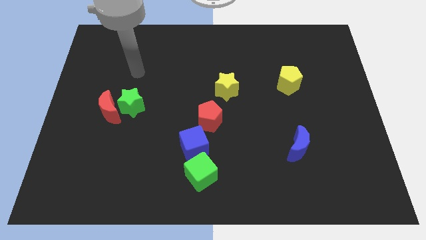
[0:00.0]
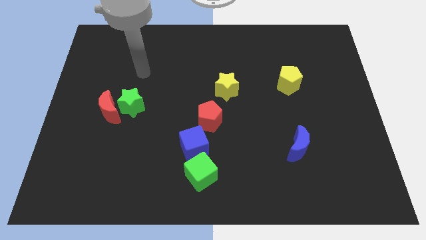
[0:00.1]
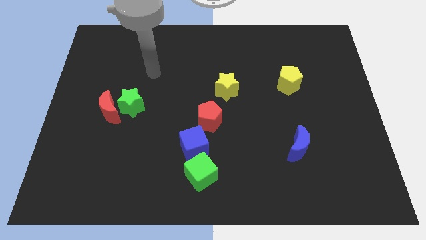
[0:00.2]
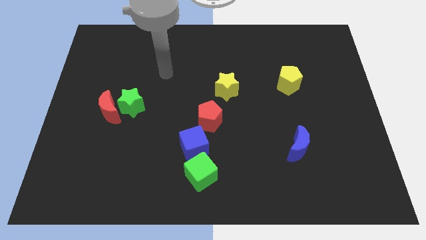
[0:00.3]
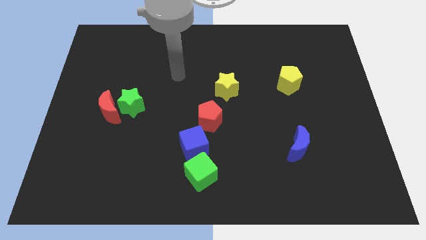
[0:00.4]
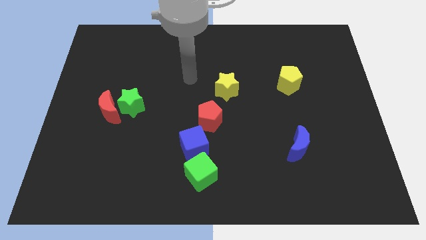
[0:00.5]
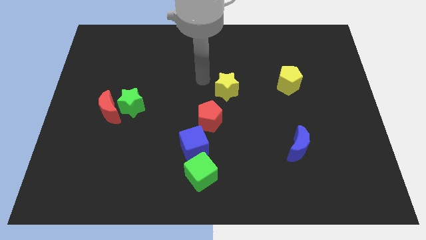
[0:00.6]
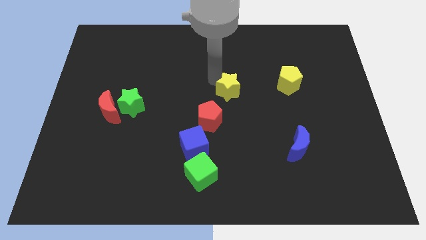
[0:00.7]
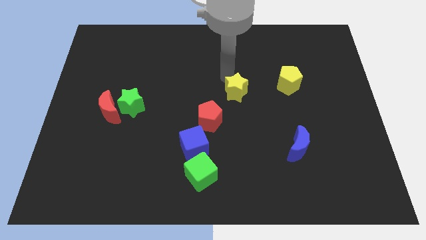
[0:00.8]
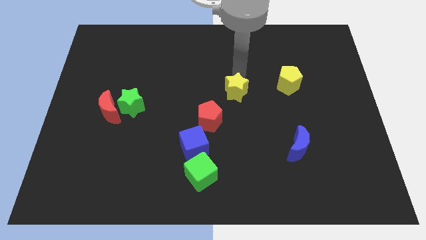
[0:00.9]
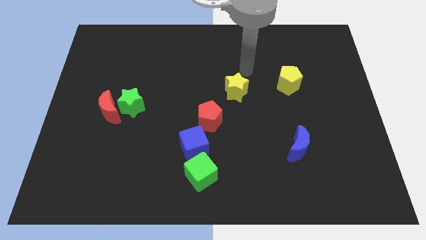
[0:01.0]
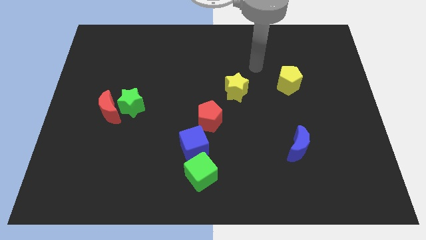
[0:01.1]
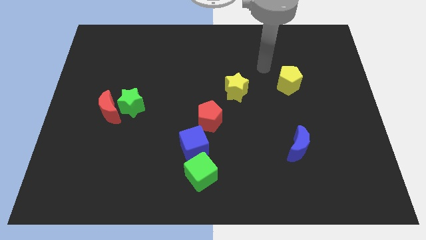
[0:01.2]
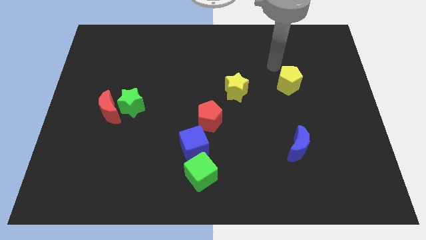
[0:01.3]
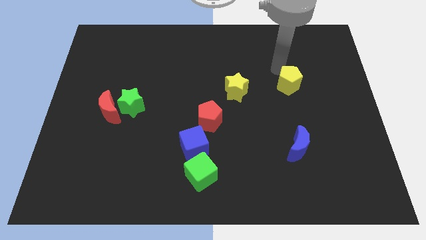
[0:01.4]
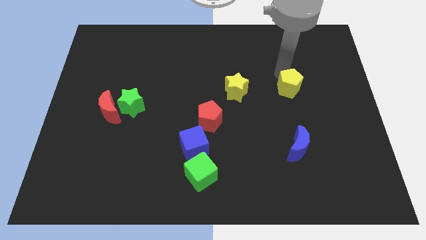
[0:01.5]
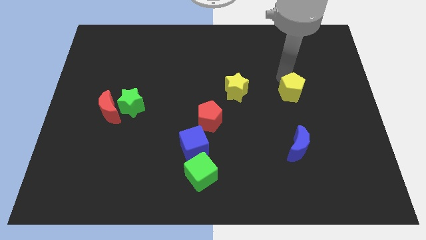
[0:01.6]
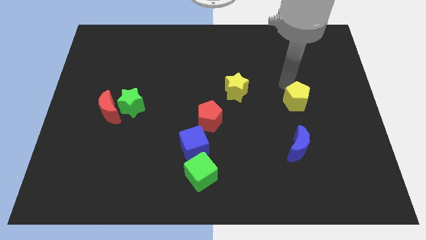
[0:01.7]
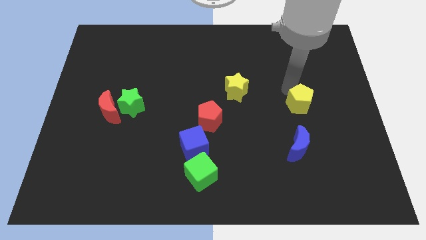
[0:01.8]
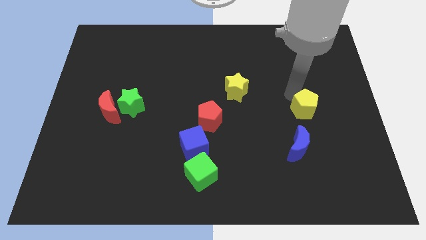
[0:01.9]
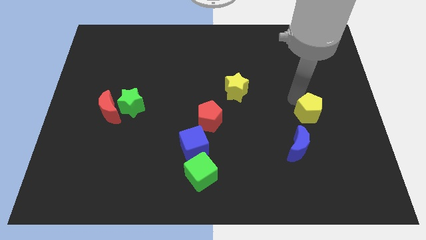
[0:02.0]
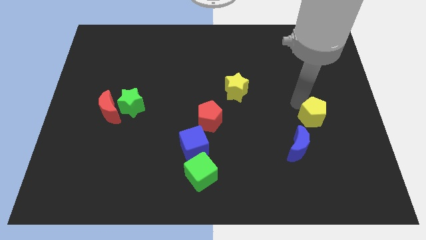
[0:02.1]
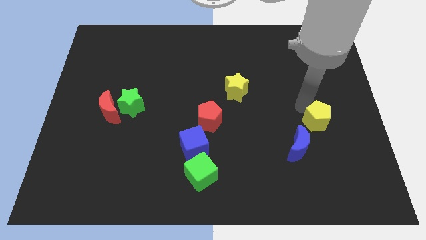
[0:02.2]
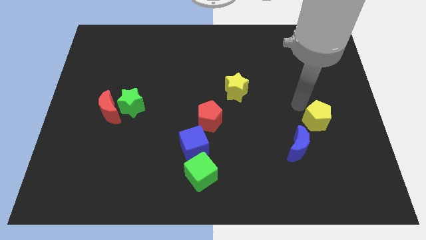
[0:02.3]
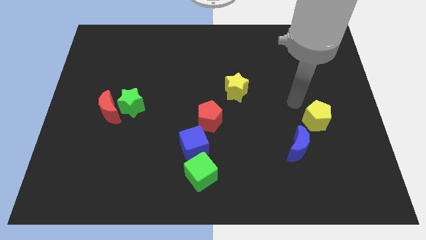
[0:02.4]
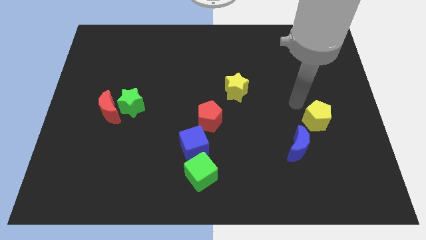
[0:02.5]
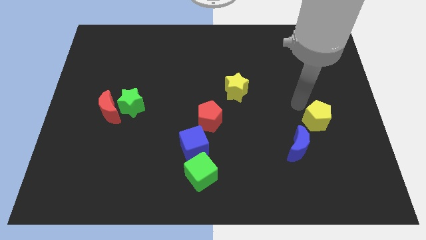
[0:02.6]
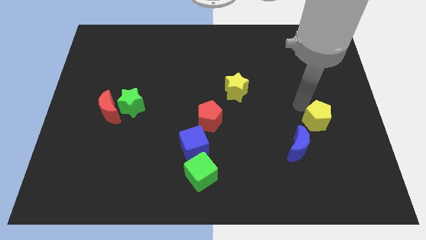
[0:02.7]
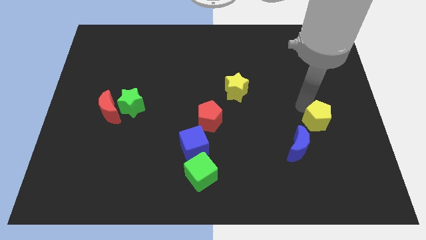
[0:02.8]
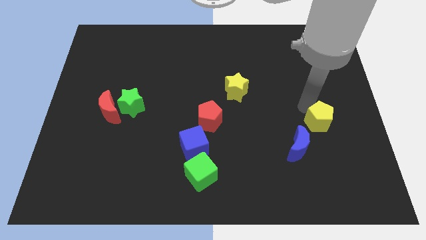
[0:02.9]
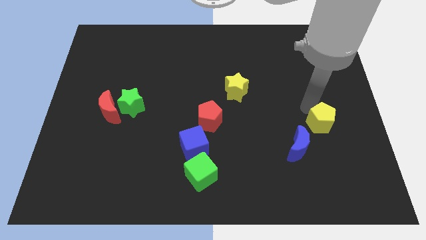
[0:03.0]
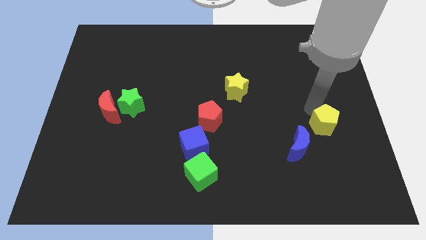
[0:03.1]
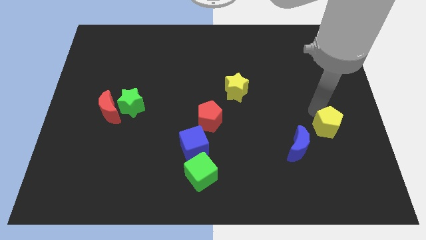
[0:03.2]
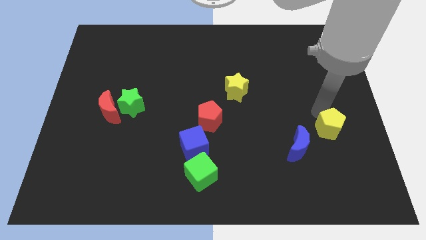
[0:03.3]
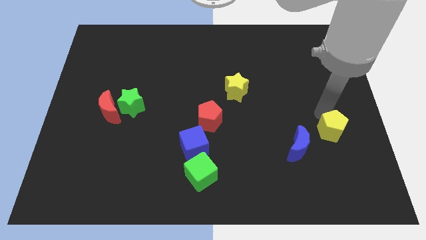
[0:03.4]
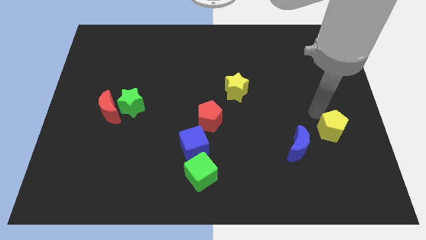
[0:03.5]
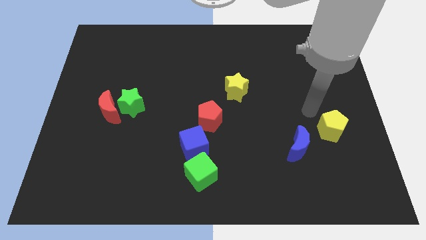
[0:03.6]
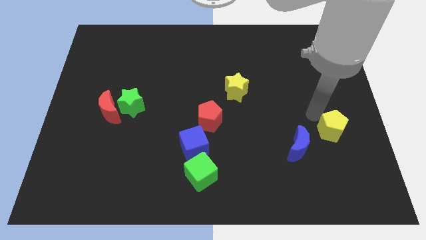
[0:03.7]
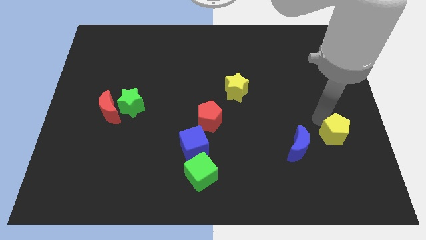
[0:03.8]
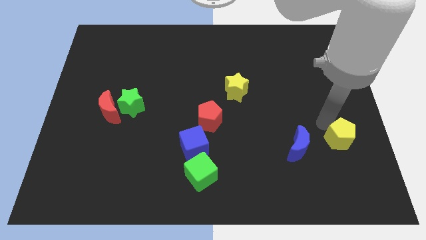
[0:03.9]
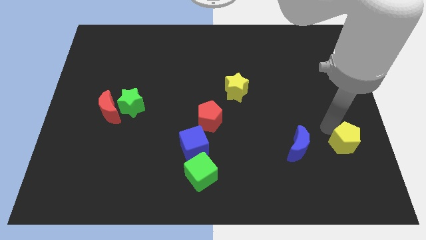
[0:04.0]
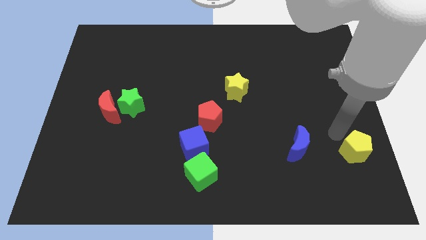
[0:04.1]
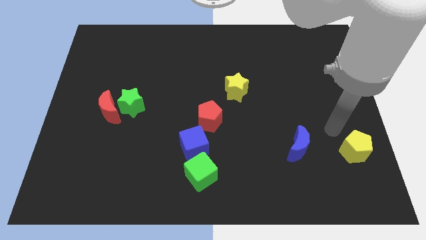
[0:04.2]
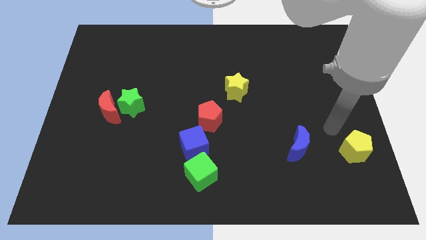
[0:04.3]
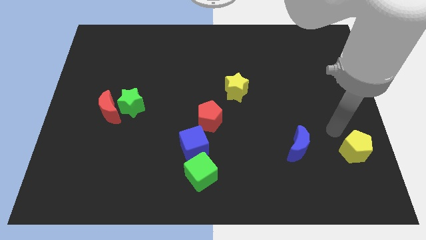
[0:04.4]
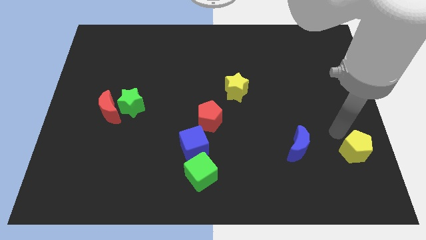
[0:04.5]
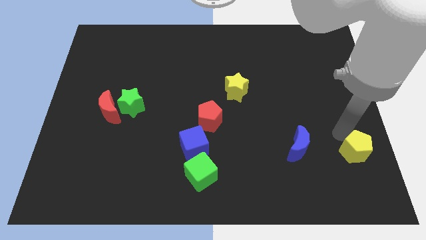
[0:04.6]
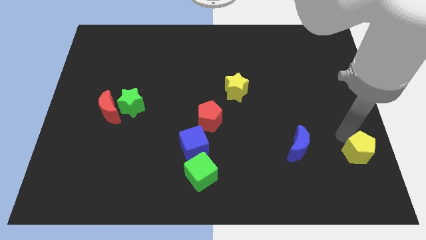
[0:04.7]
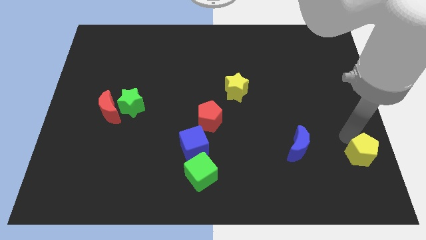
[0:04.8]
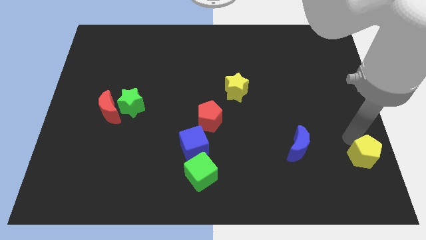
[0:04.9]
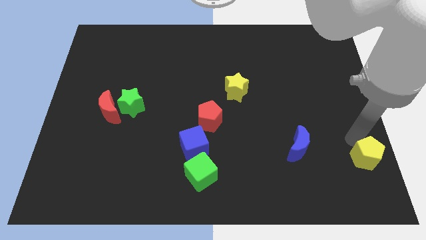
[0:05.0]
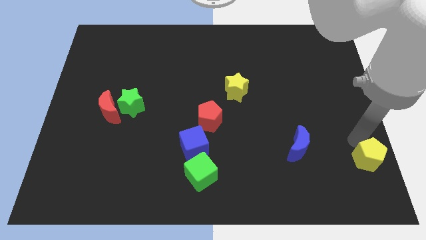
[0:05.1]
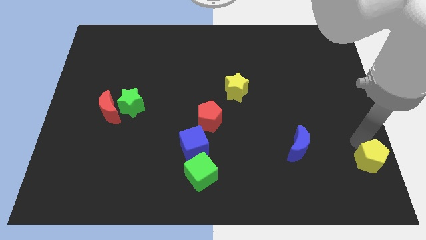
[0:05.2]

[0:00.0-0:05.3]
move the yellow pentagon to the bottom right
